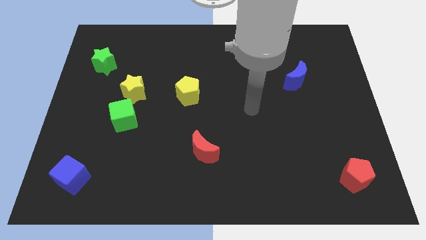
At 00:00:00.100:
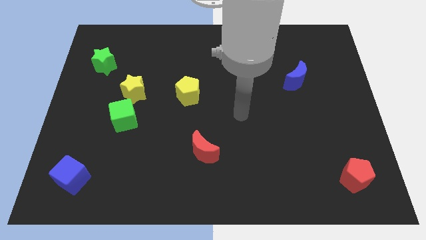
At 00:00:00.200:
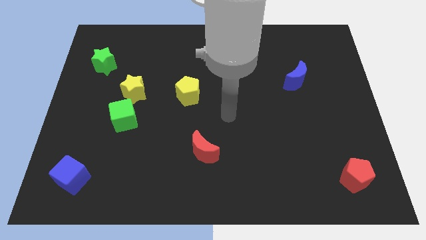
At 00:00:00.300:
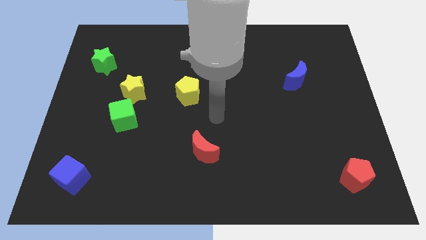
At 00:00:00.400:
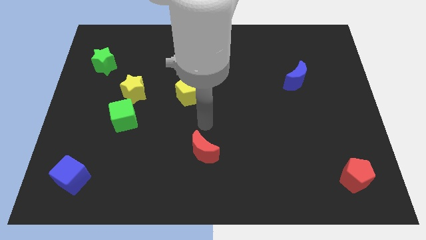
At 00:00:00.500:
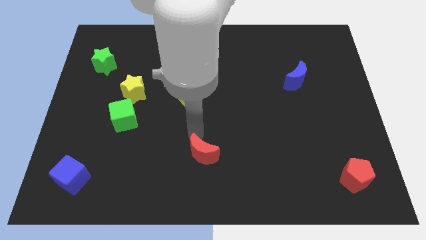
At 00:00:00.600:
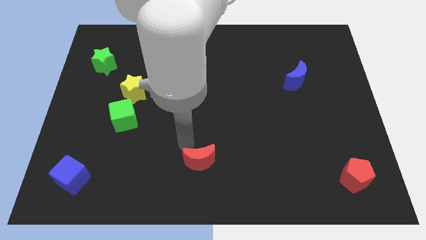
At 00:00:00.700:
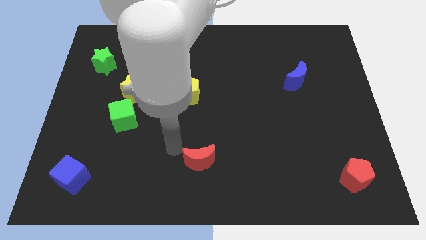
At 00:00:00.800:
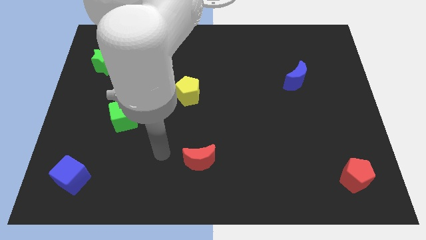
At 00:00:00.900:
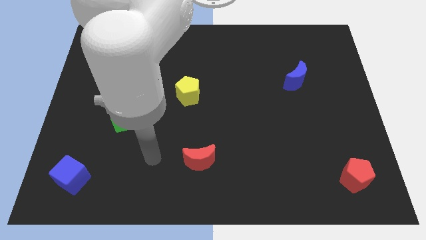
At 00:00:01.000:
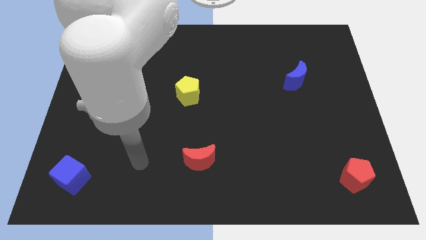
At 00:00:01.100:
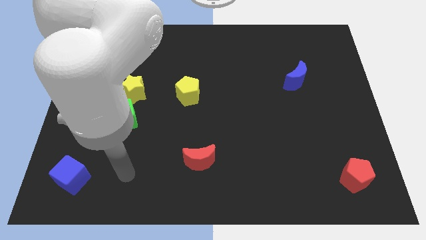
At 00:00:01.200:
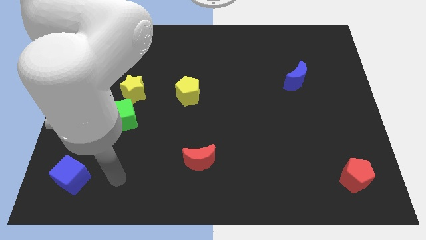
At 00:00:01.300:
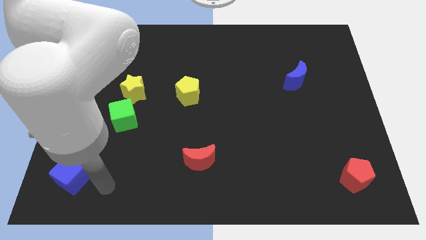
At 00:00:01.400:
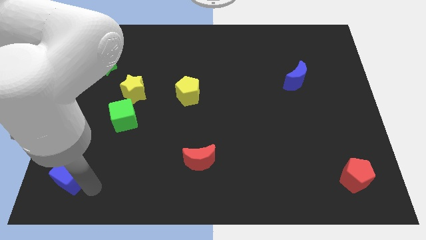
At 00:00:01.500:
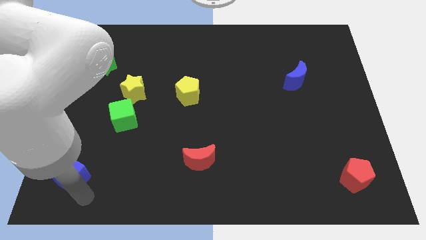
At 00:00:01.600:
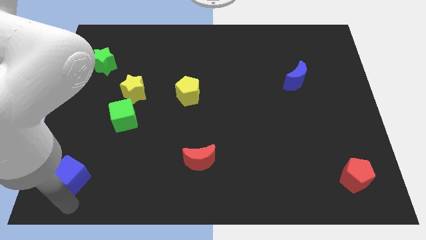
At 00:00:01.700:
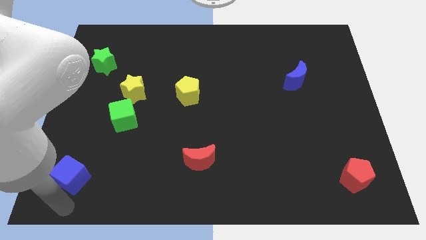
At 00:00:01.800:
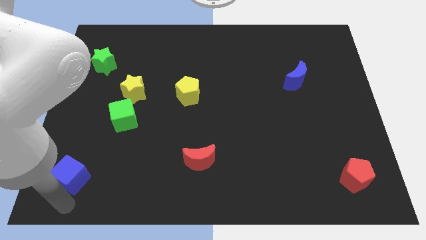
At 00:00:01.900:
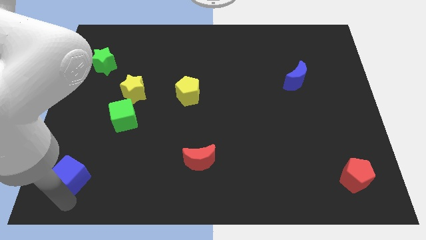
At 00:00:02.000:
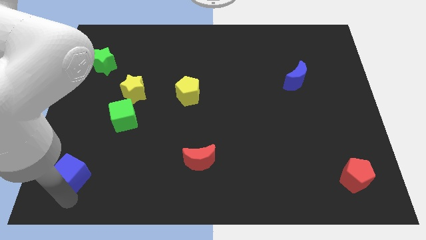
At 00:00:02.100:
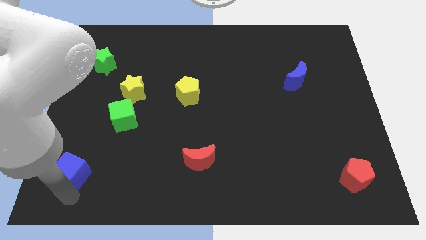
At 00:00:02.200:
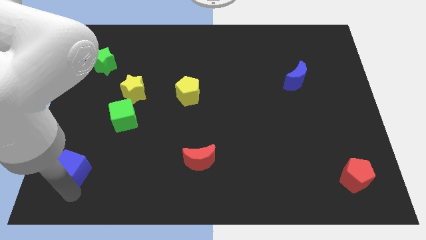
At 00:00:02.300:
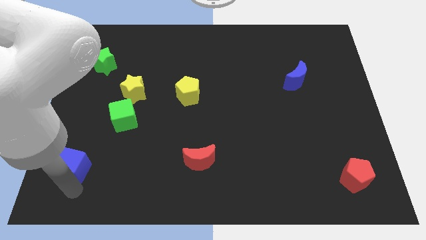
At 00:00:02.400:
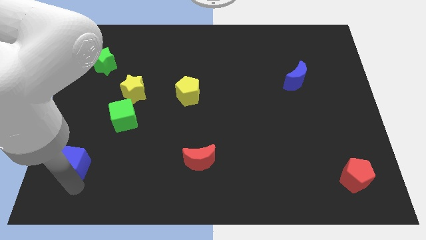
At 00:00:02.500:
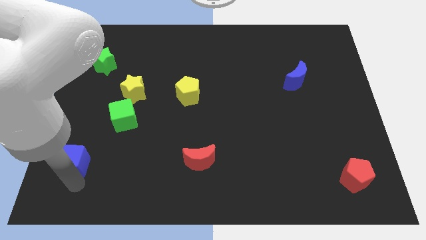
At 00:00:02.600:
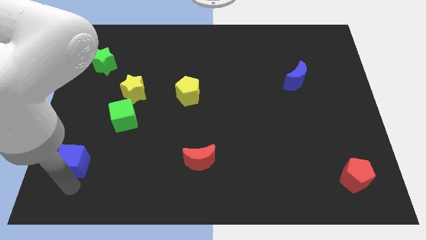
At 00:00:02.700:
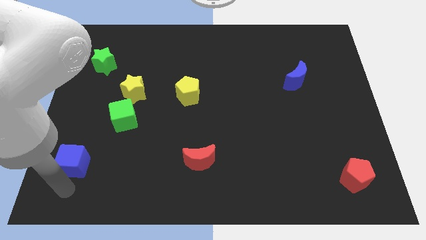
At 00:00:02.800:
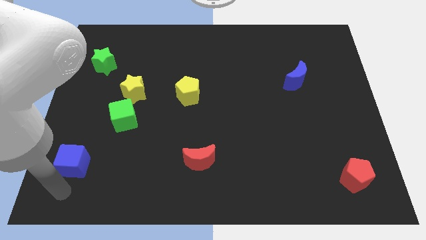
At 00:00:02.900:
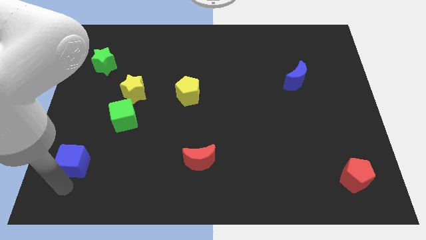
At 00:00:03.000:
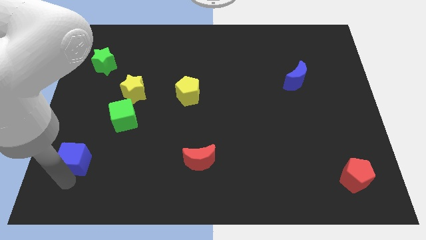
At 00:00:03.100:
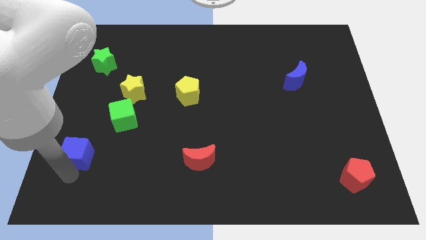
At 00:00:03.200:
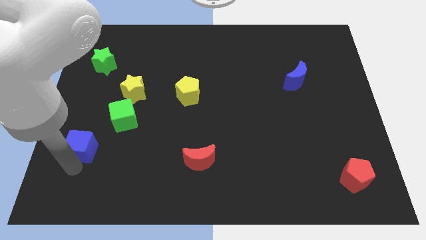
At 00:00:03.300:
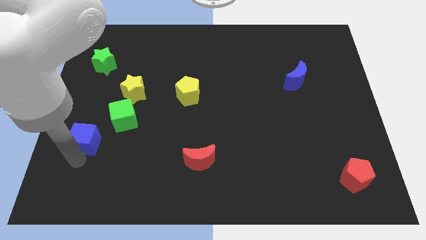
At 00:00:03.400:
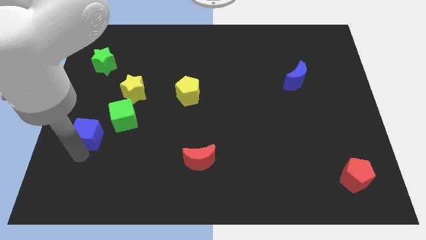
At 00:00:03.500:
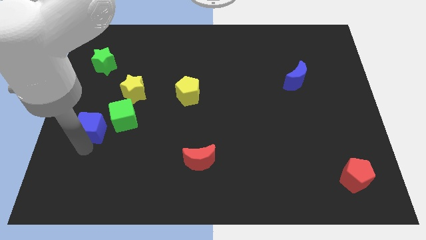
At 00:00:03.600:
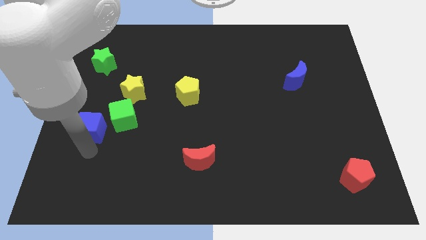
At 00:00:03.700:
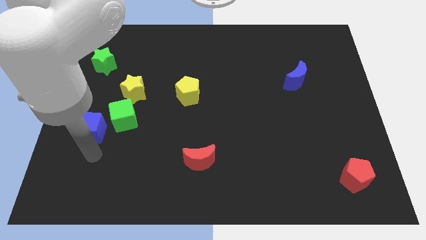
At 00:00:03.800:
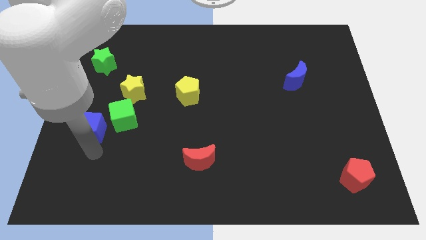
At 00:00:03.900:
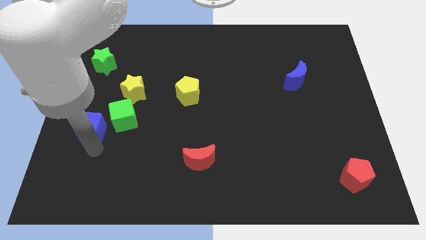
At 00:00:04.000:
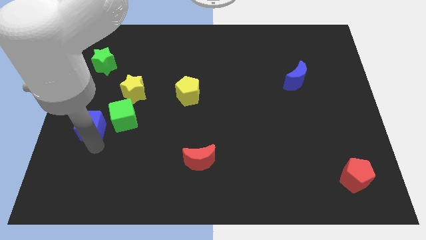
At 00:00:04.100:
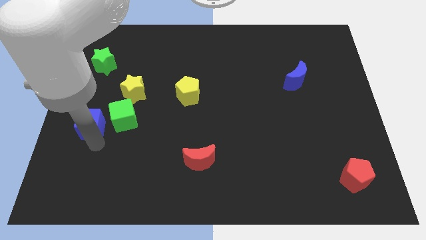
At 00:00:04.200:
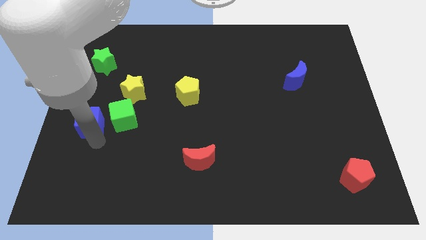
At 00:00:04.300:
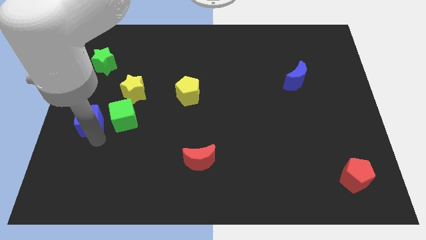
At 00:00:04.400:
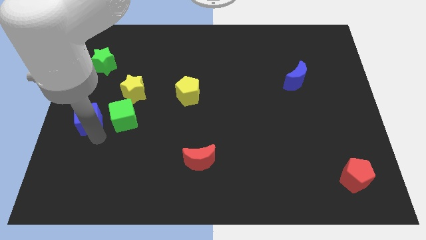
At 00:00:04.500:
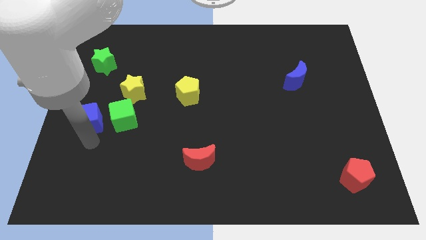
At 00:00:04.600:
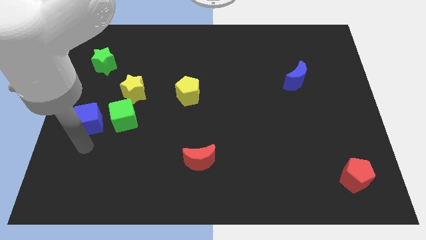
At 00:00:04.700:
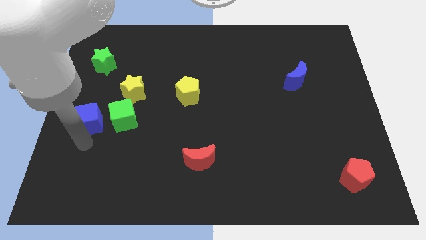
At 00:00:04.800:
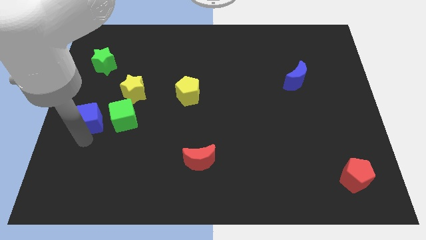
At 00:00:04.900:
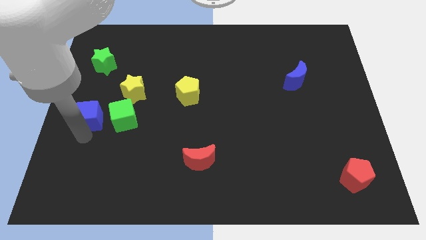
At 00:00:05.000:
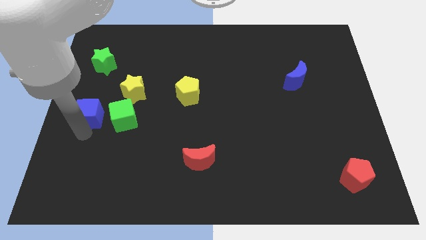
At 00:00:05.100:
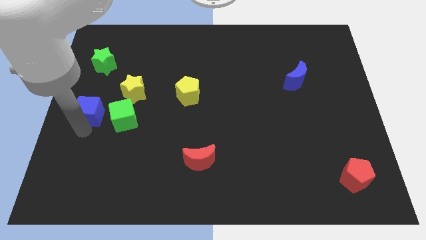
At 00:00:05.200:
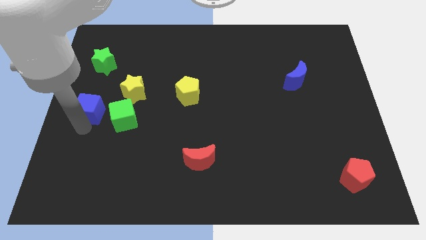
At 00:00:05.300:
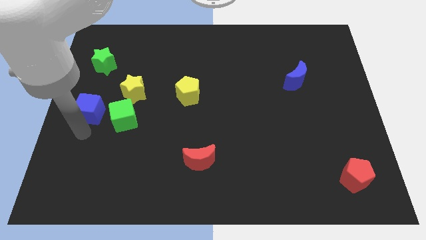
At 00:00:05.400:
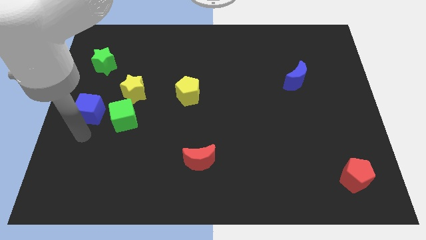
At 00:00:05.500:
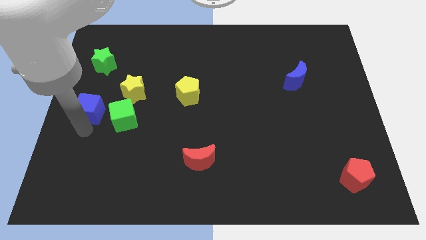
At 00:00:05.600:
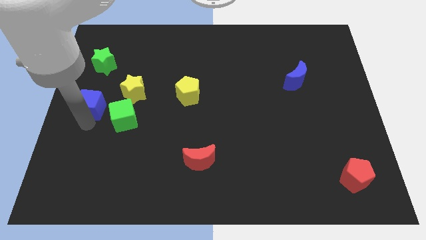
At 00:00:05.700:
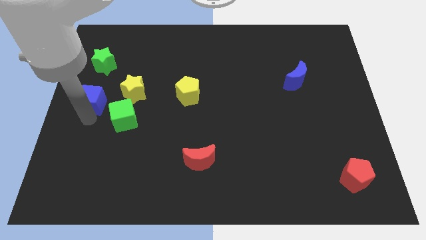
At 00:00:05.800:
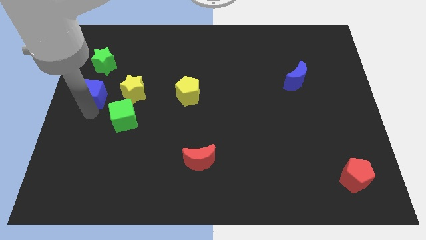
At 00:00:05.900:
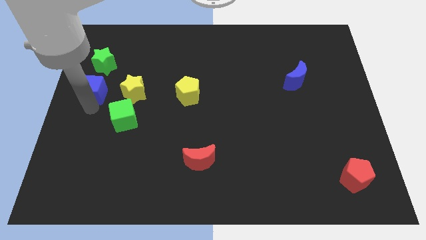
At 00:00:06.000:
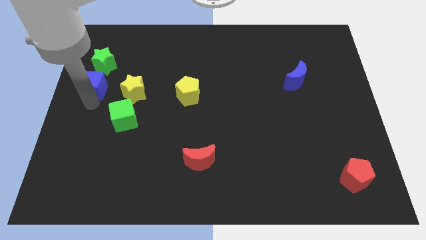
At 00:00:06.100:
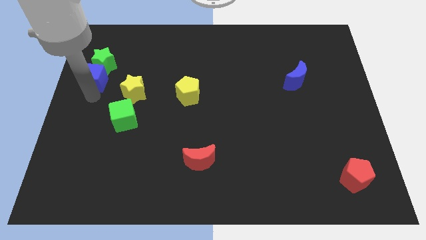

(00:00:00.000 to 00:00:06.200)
push the blue cube close to the green star

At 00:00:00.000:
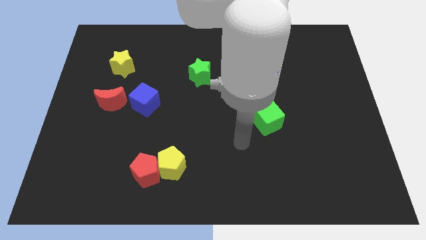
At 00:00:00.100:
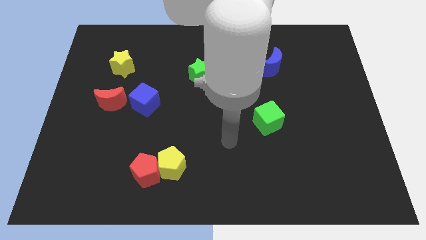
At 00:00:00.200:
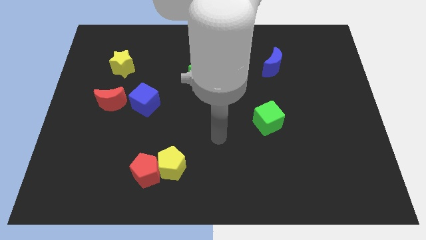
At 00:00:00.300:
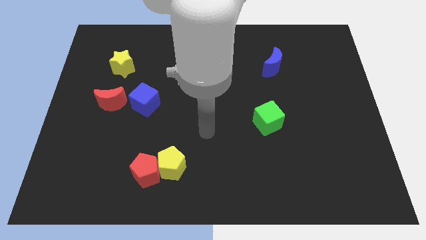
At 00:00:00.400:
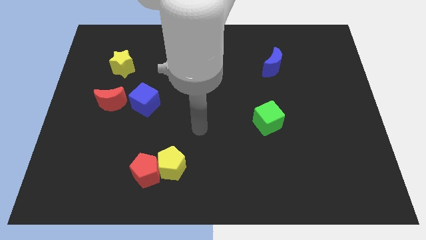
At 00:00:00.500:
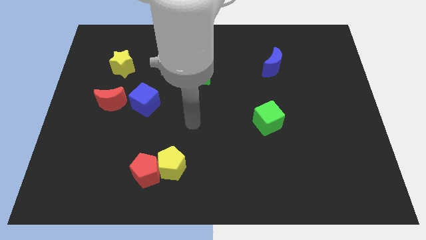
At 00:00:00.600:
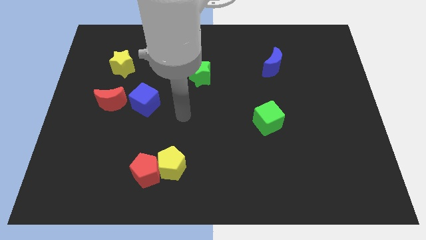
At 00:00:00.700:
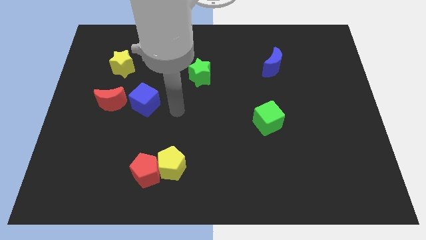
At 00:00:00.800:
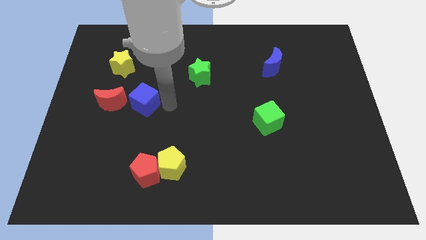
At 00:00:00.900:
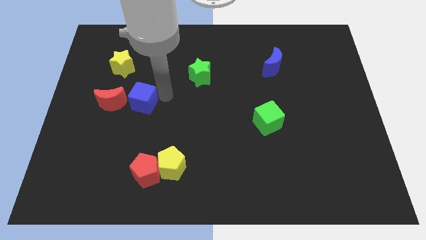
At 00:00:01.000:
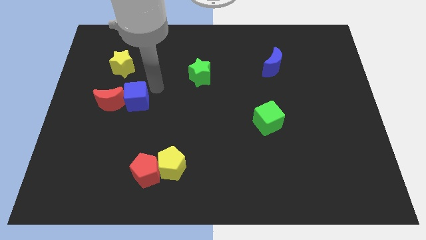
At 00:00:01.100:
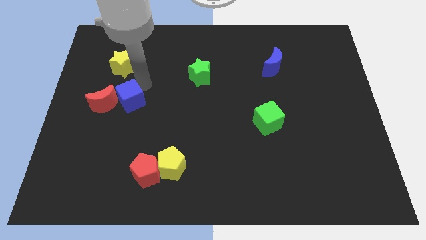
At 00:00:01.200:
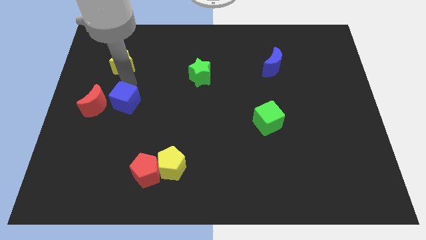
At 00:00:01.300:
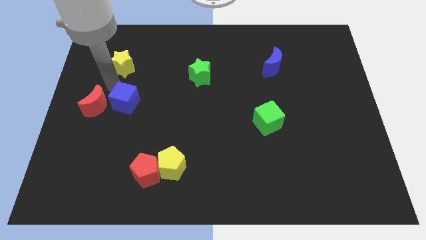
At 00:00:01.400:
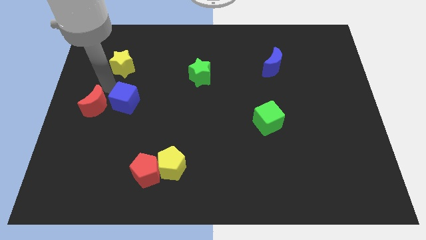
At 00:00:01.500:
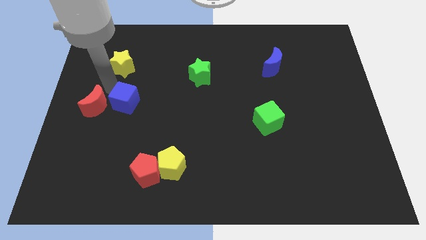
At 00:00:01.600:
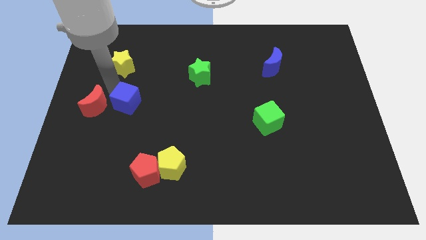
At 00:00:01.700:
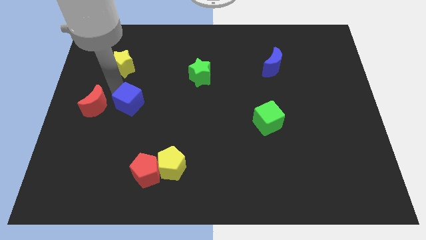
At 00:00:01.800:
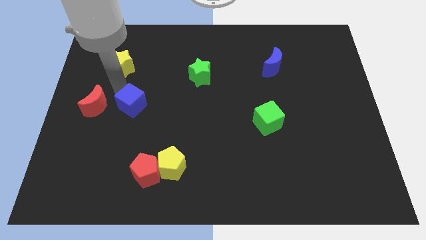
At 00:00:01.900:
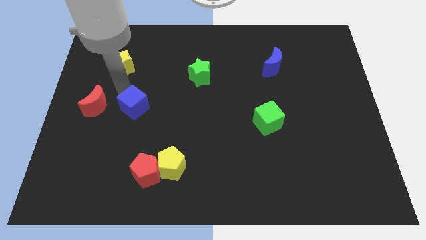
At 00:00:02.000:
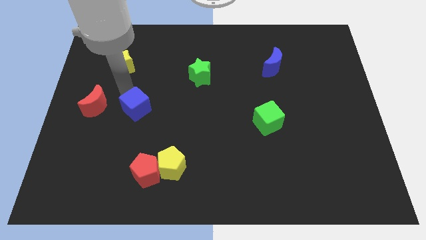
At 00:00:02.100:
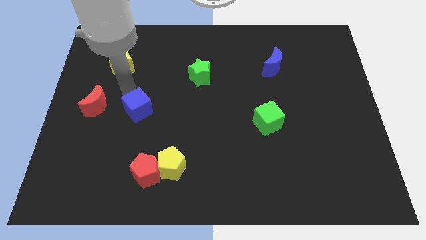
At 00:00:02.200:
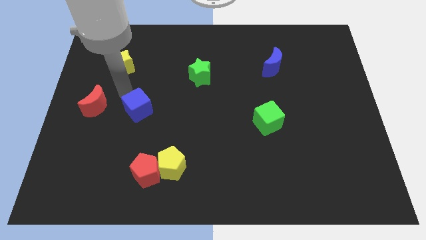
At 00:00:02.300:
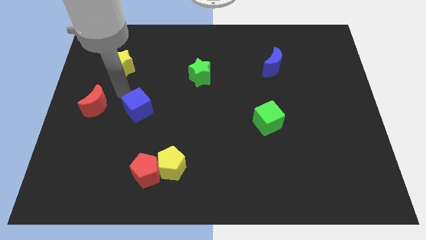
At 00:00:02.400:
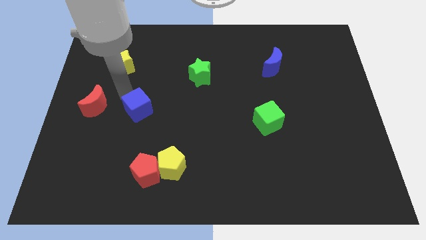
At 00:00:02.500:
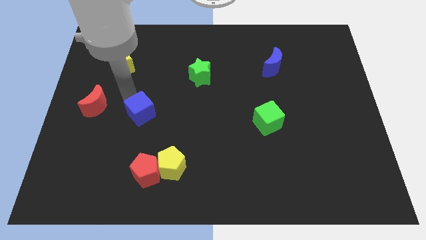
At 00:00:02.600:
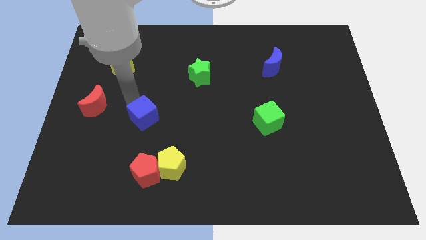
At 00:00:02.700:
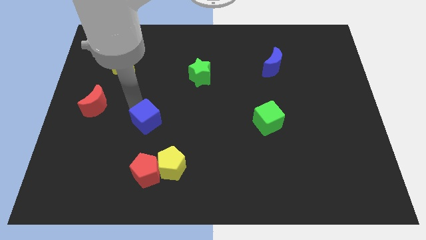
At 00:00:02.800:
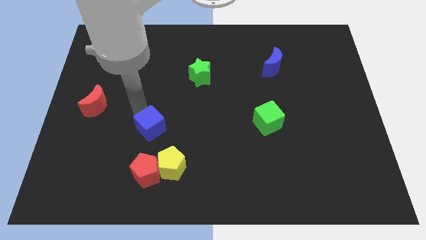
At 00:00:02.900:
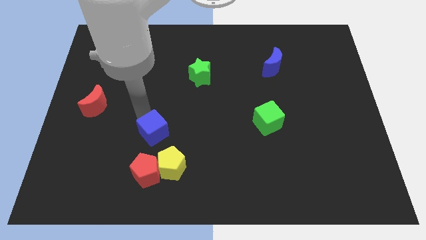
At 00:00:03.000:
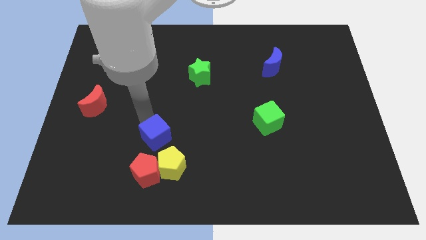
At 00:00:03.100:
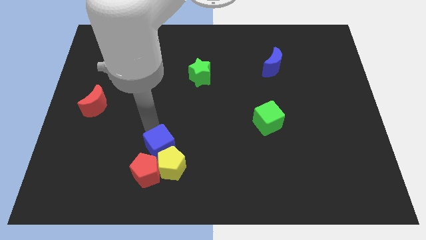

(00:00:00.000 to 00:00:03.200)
put the blue cube next to the yellow pentagon
